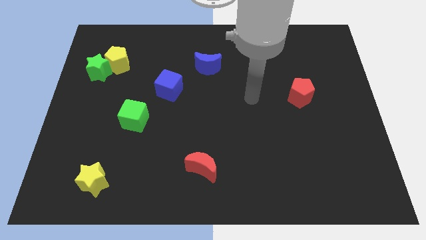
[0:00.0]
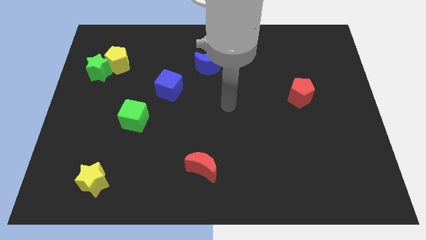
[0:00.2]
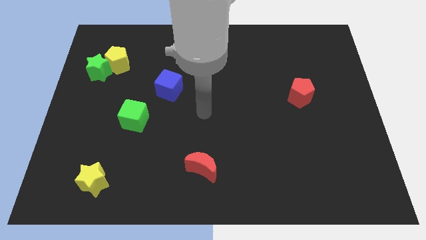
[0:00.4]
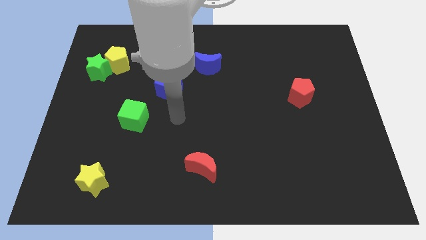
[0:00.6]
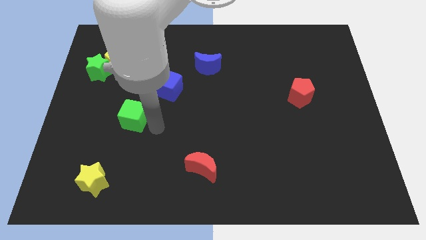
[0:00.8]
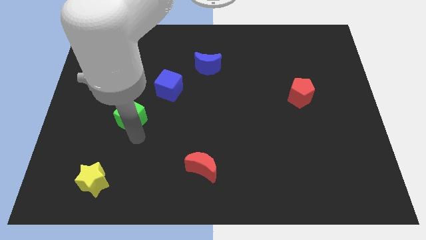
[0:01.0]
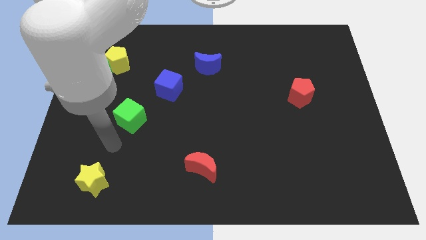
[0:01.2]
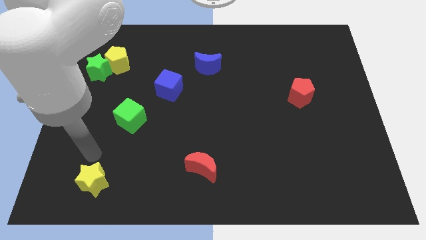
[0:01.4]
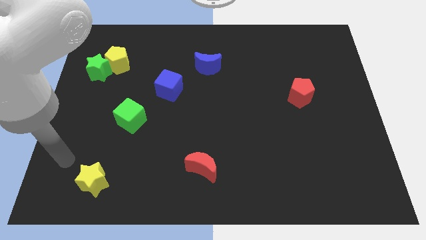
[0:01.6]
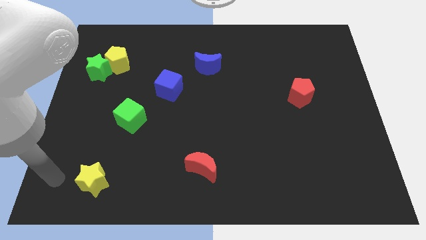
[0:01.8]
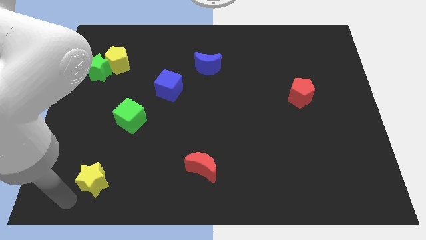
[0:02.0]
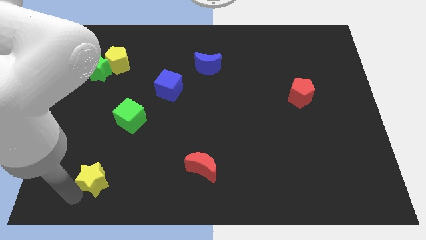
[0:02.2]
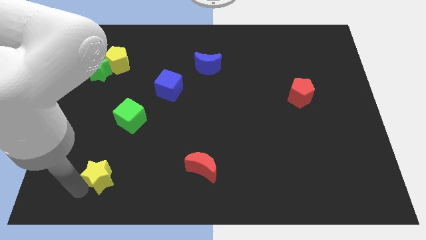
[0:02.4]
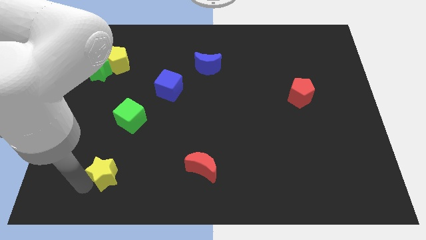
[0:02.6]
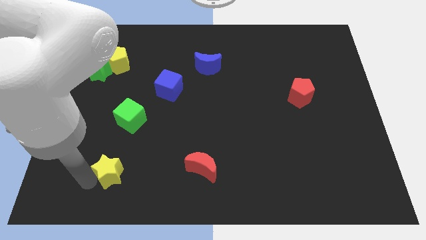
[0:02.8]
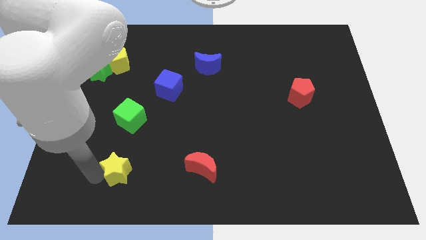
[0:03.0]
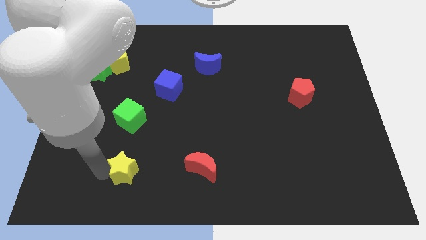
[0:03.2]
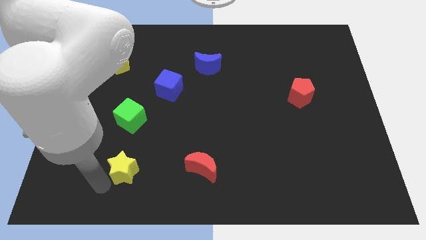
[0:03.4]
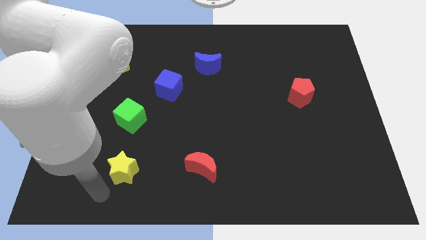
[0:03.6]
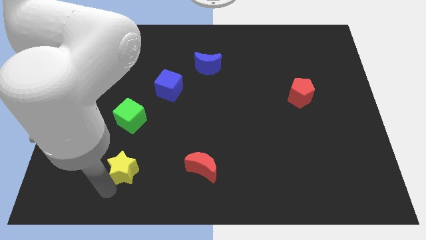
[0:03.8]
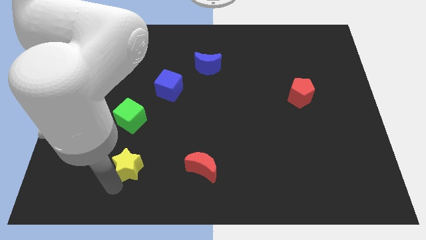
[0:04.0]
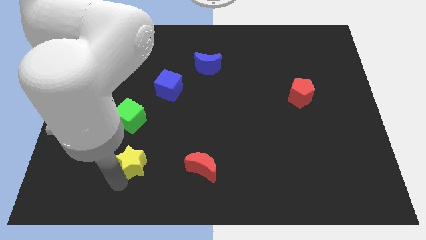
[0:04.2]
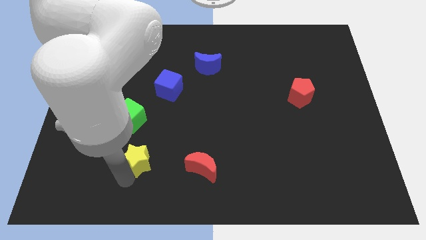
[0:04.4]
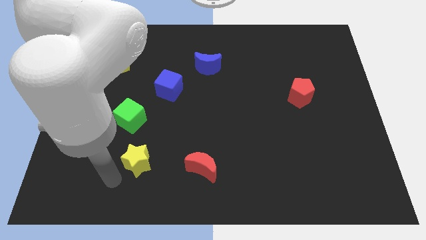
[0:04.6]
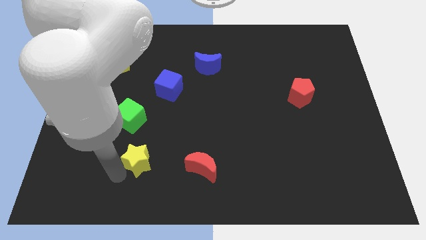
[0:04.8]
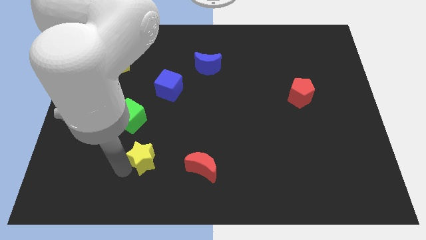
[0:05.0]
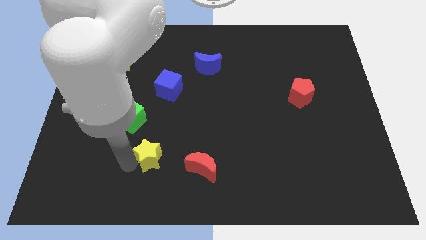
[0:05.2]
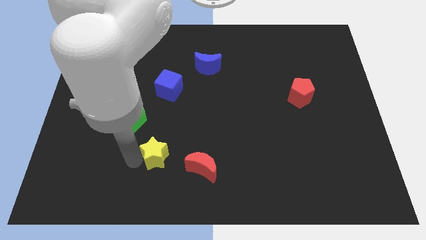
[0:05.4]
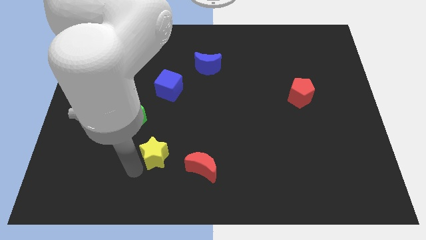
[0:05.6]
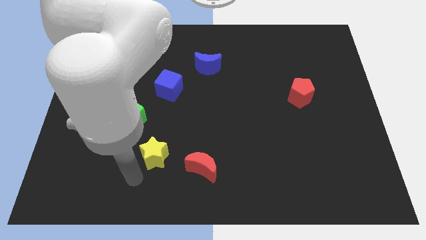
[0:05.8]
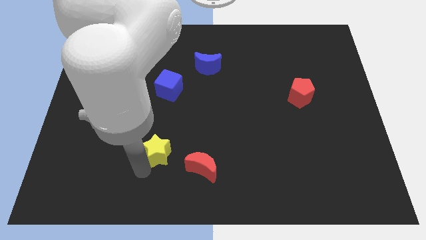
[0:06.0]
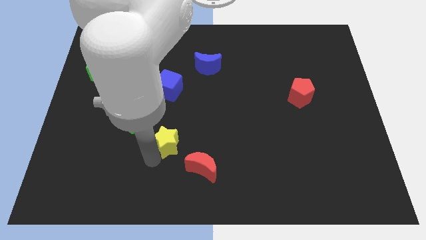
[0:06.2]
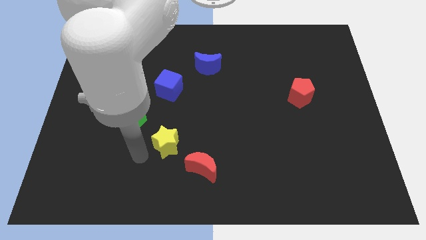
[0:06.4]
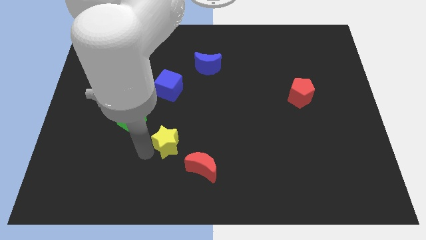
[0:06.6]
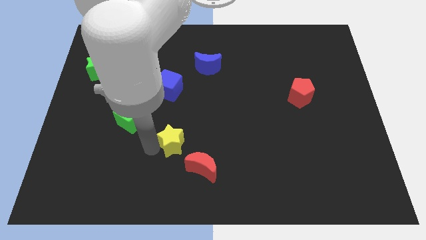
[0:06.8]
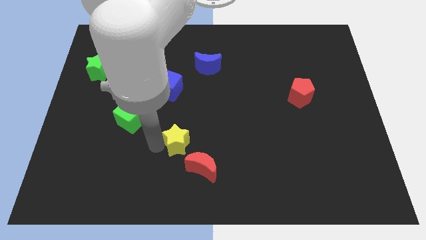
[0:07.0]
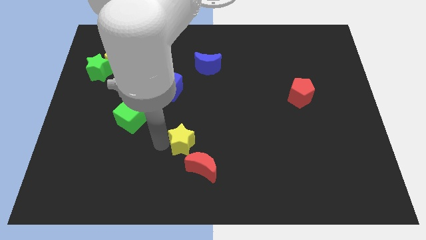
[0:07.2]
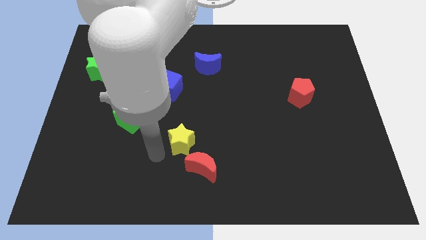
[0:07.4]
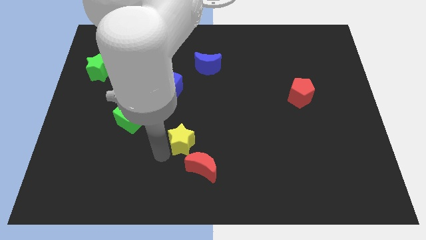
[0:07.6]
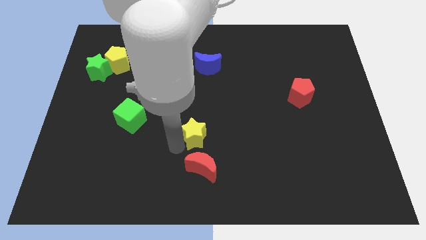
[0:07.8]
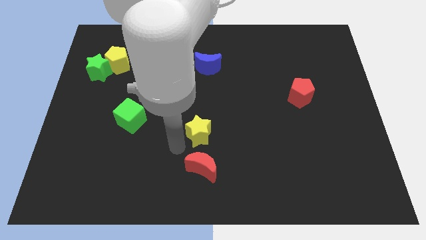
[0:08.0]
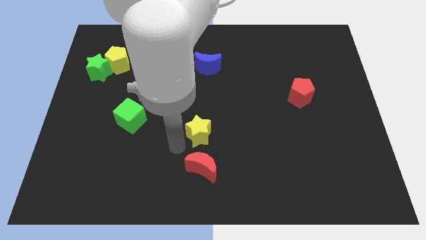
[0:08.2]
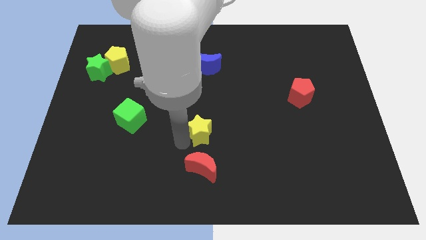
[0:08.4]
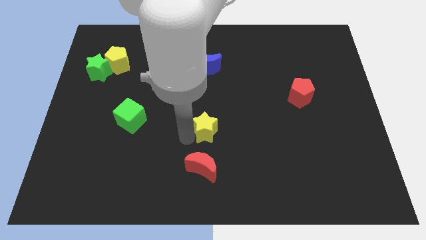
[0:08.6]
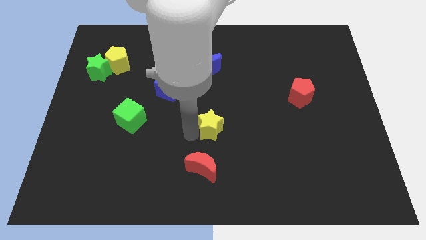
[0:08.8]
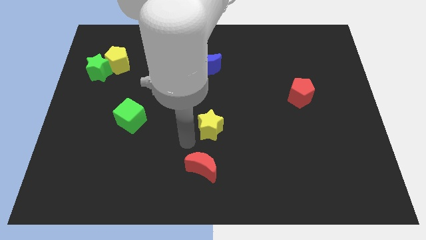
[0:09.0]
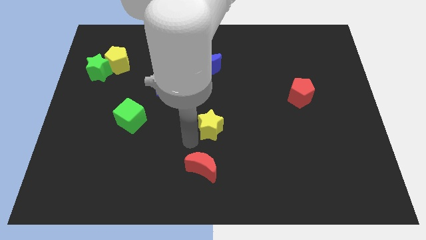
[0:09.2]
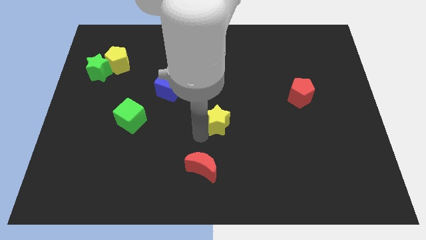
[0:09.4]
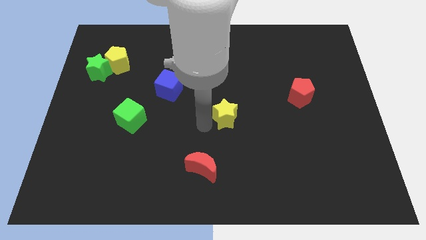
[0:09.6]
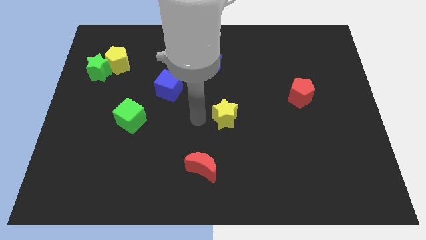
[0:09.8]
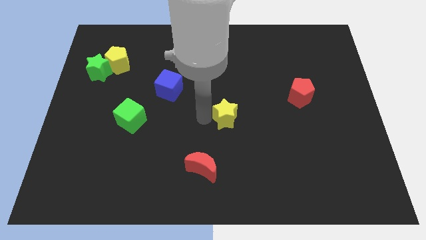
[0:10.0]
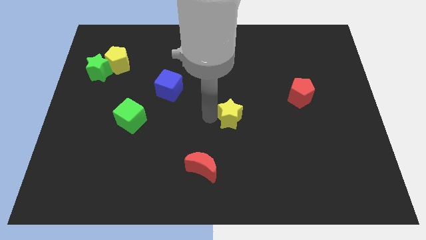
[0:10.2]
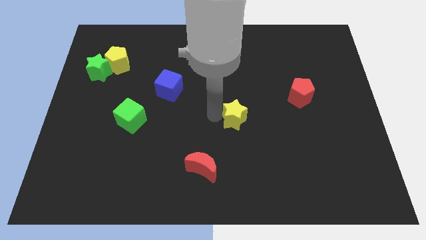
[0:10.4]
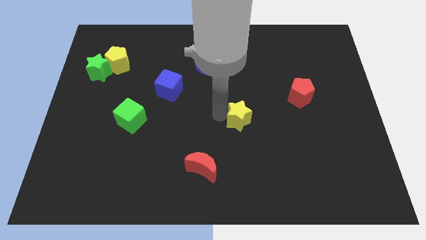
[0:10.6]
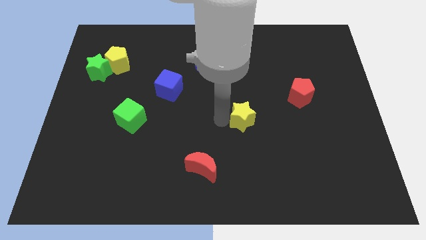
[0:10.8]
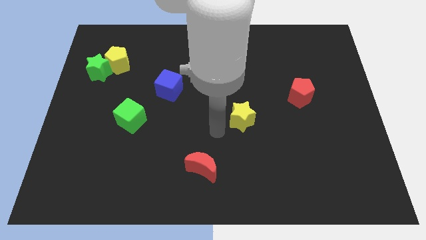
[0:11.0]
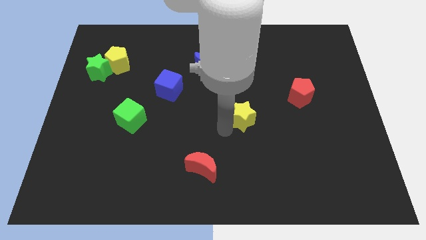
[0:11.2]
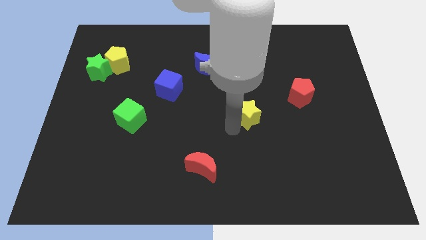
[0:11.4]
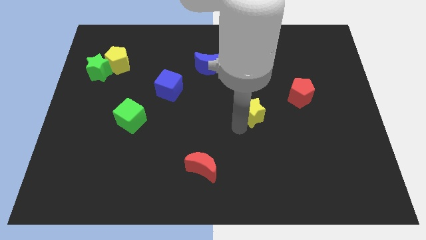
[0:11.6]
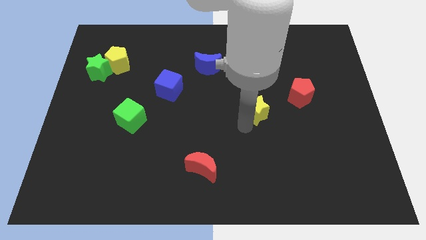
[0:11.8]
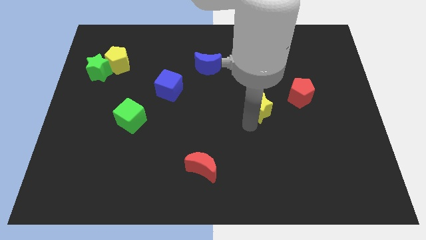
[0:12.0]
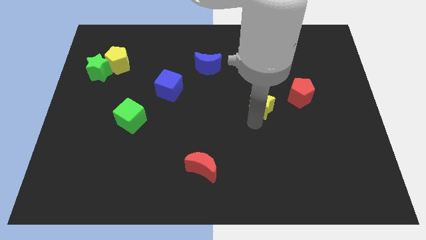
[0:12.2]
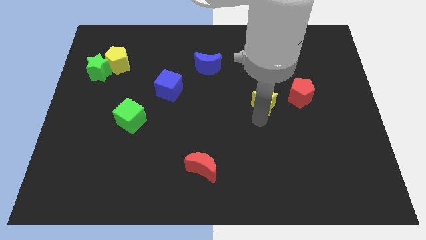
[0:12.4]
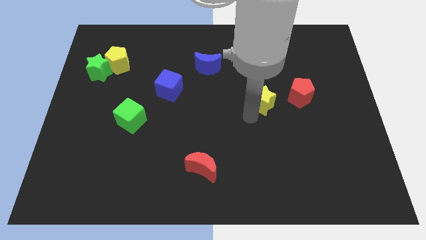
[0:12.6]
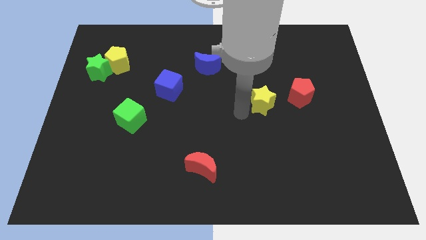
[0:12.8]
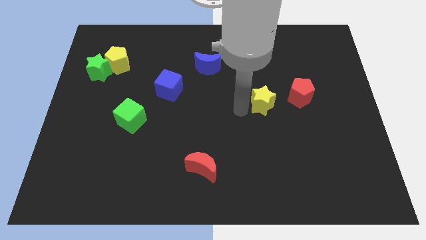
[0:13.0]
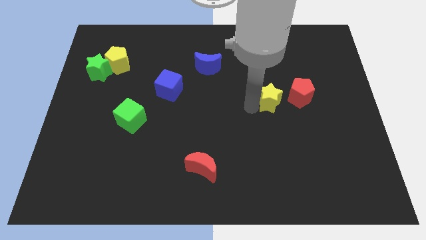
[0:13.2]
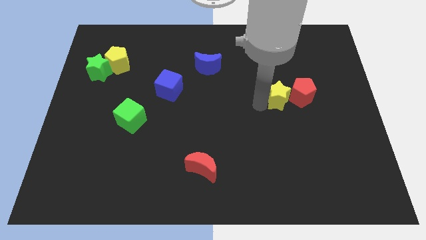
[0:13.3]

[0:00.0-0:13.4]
slide the yellow star towards the red pentagon
